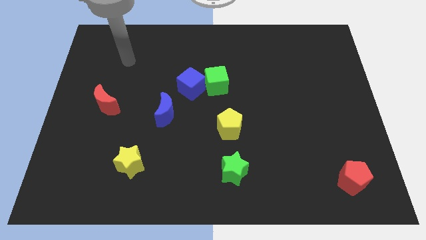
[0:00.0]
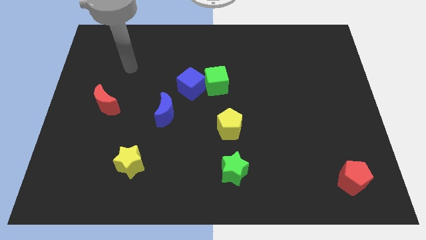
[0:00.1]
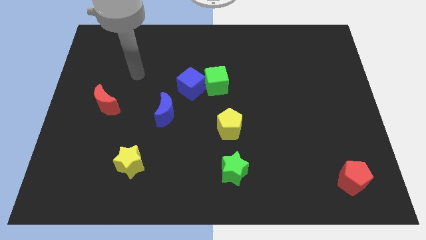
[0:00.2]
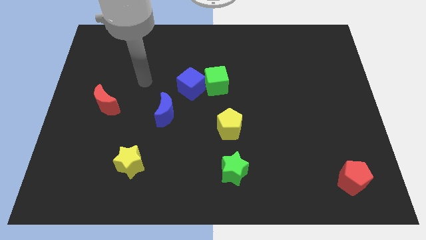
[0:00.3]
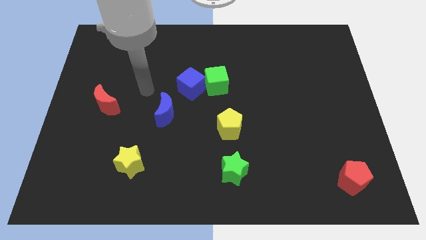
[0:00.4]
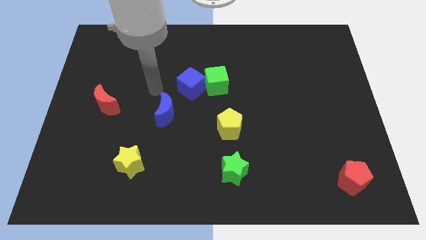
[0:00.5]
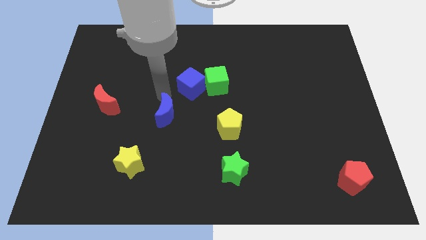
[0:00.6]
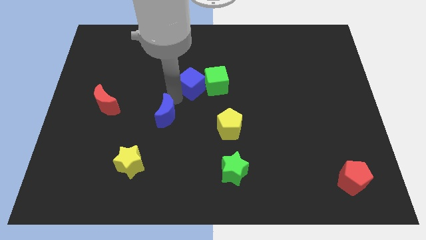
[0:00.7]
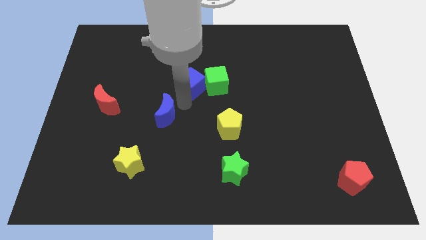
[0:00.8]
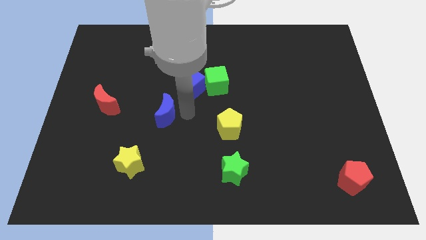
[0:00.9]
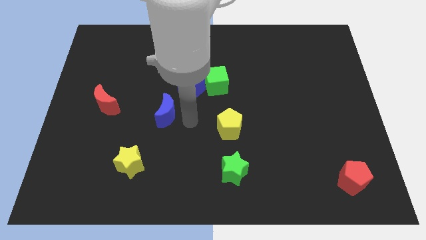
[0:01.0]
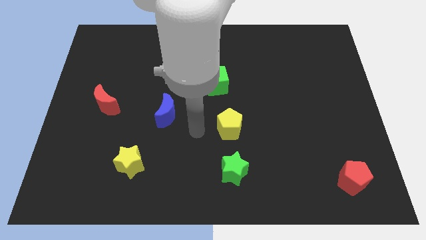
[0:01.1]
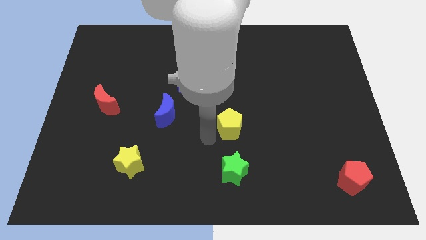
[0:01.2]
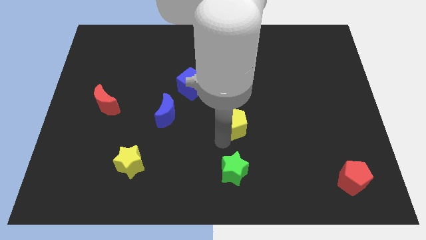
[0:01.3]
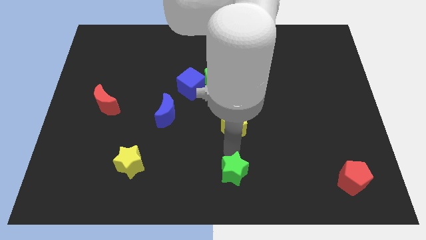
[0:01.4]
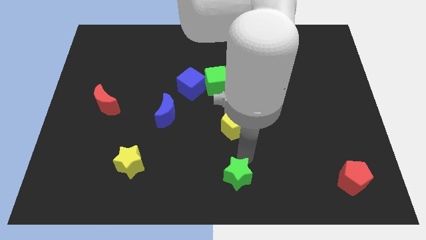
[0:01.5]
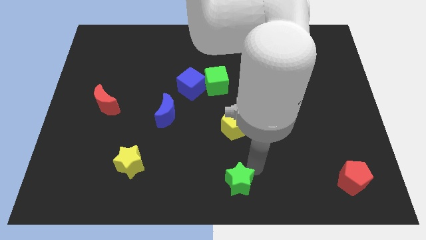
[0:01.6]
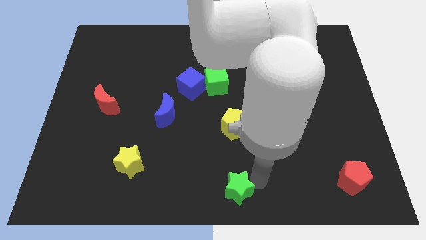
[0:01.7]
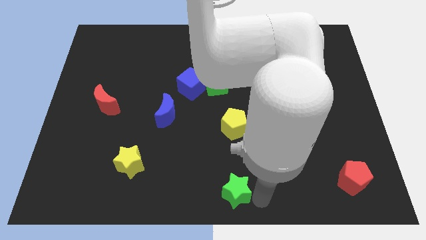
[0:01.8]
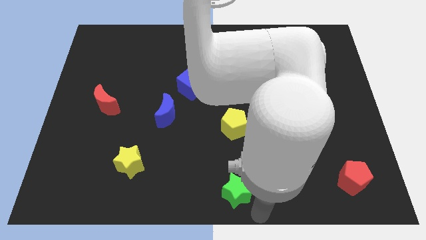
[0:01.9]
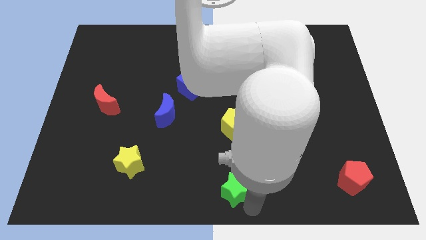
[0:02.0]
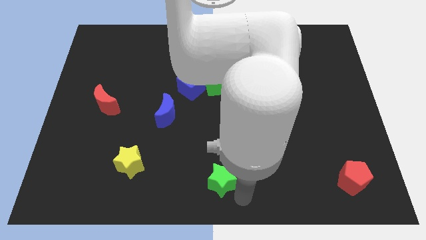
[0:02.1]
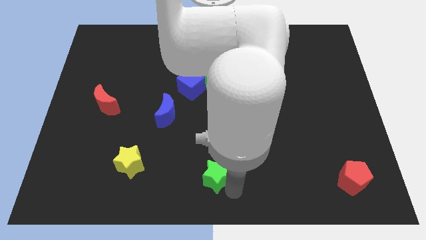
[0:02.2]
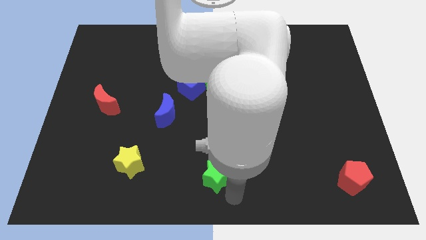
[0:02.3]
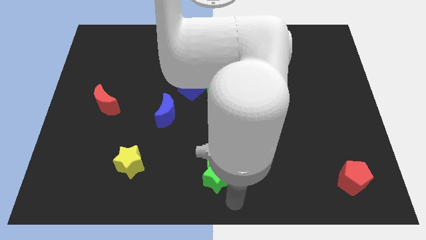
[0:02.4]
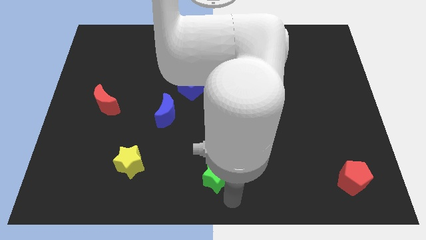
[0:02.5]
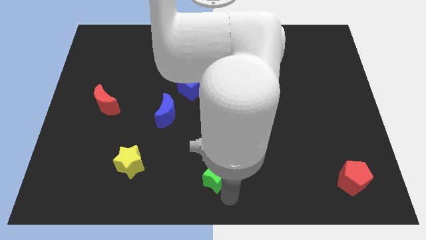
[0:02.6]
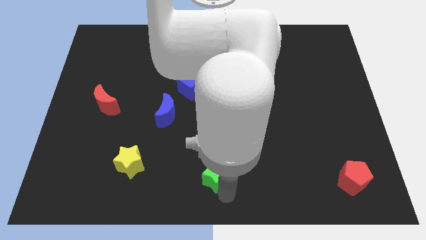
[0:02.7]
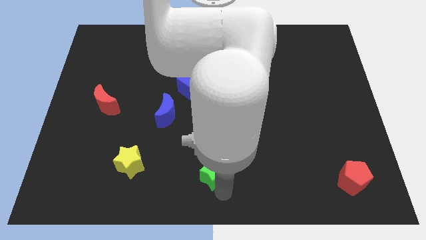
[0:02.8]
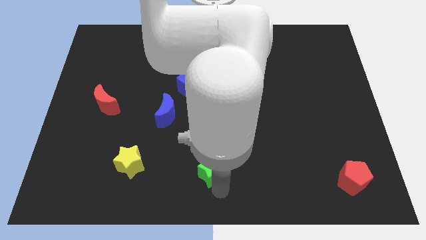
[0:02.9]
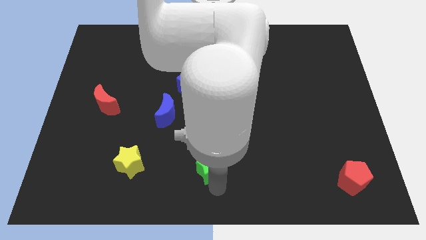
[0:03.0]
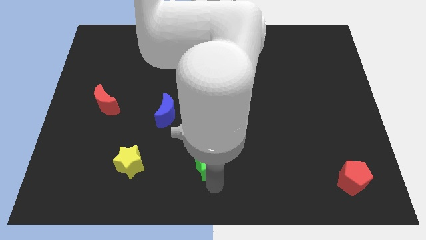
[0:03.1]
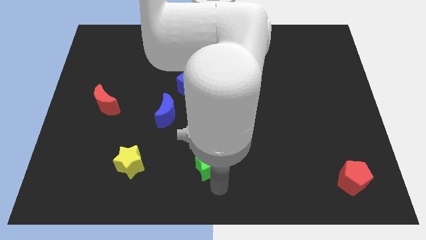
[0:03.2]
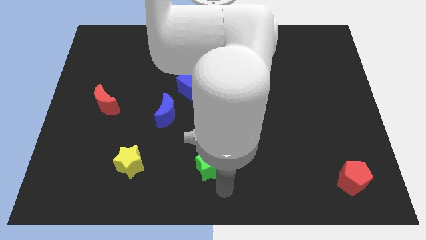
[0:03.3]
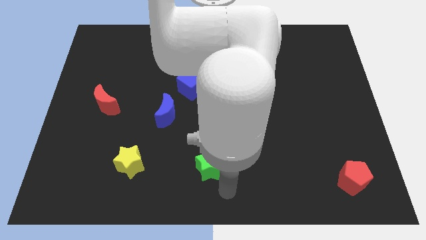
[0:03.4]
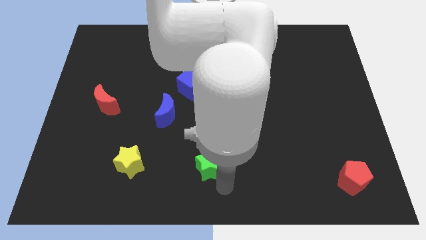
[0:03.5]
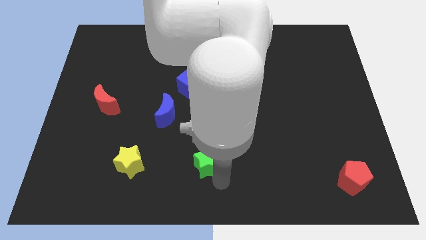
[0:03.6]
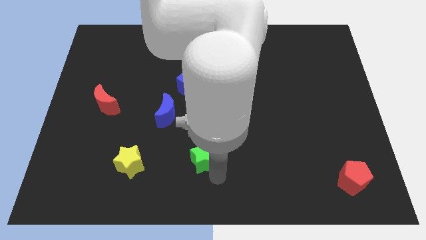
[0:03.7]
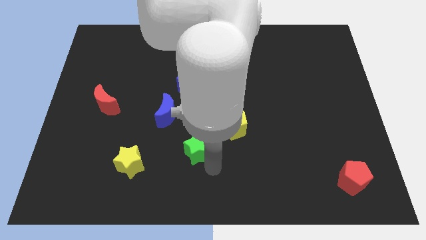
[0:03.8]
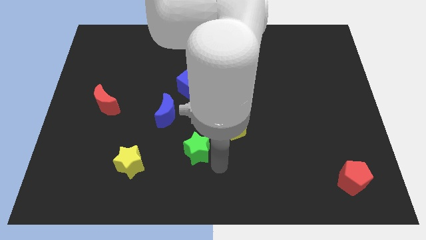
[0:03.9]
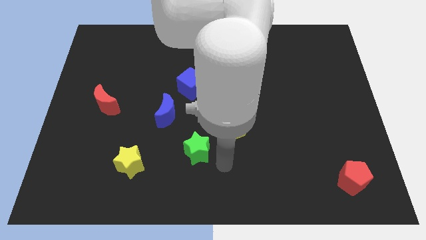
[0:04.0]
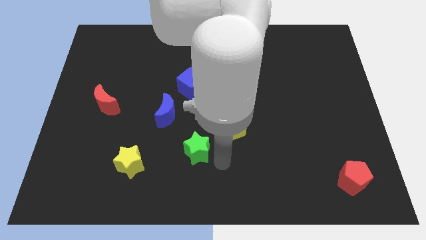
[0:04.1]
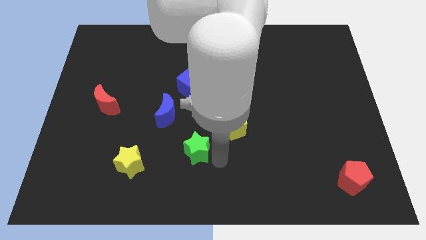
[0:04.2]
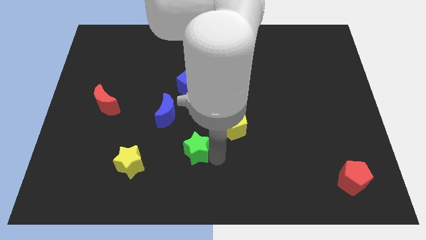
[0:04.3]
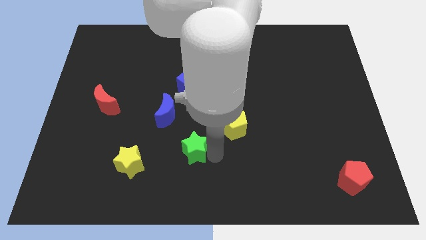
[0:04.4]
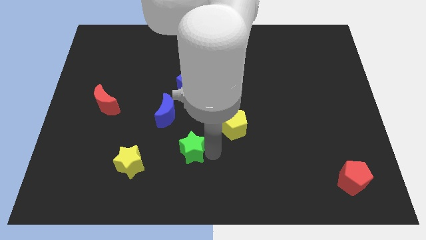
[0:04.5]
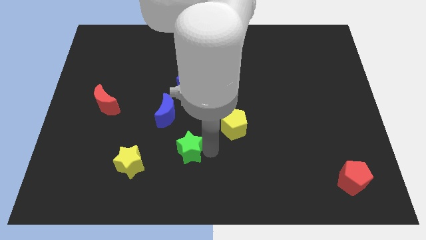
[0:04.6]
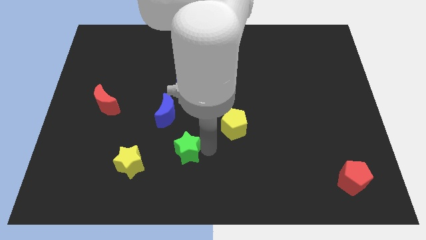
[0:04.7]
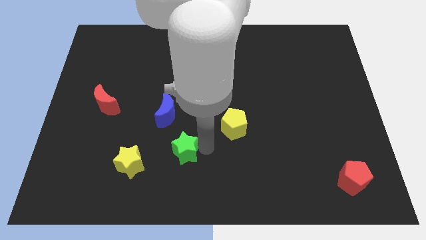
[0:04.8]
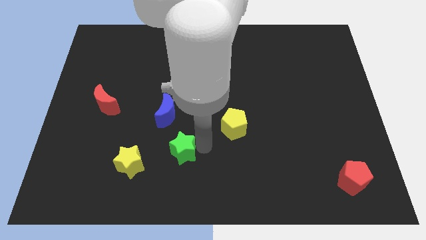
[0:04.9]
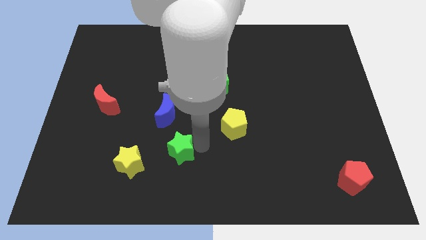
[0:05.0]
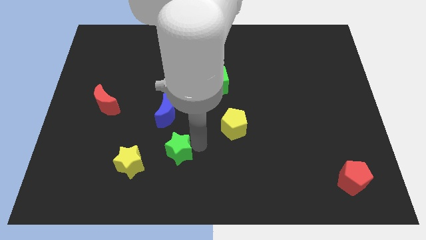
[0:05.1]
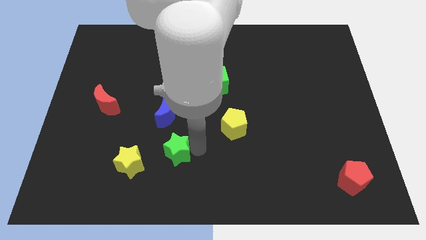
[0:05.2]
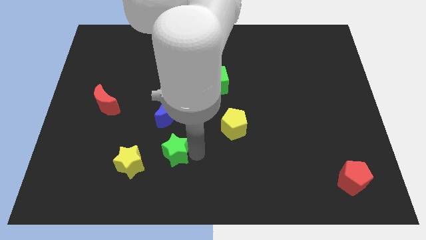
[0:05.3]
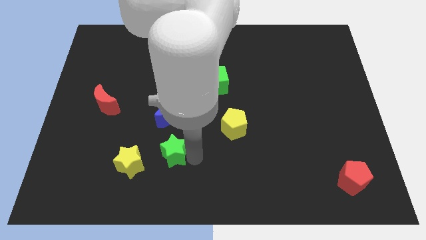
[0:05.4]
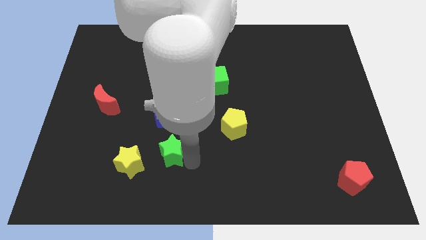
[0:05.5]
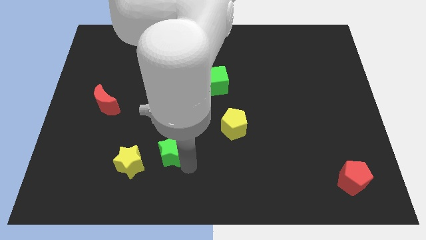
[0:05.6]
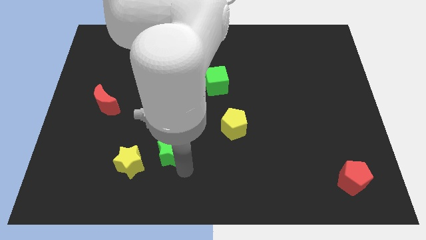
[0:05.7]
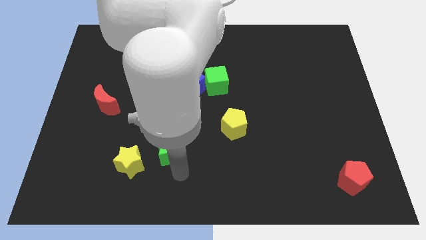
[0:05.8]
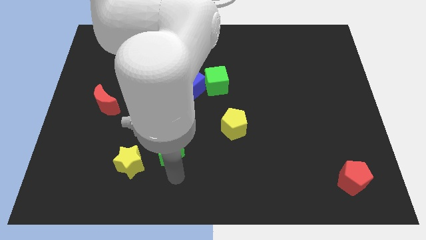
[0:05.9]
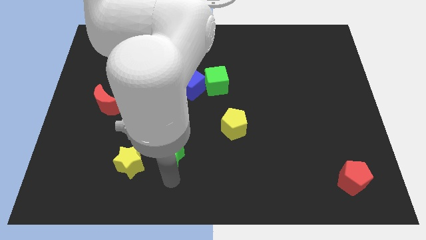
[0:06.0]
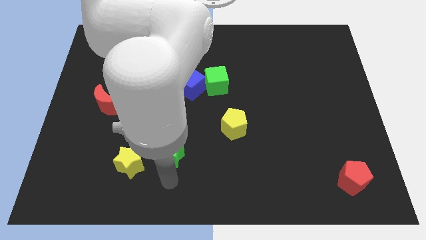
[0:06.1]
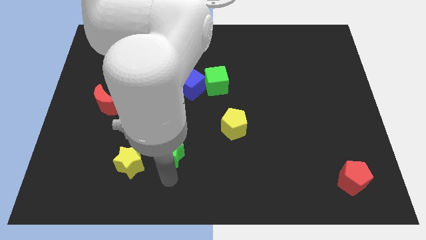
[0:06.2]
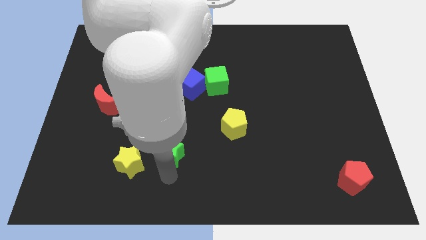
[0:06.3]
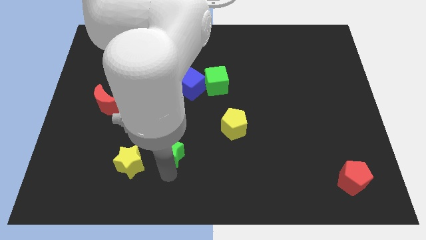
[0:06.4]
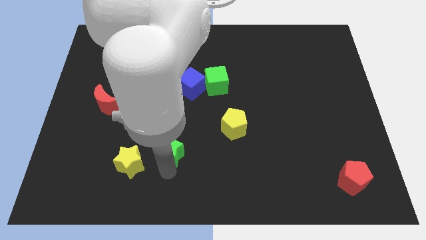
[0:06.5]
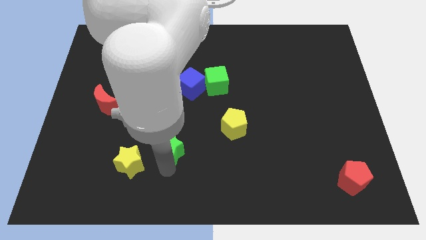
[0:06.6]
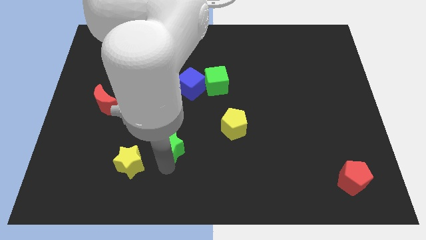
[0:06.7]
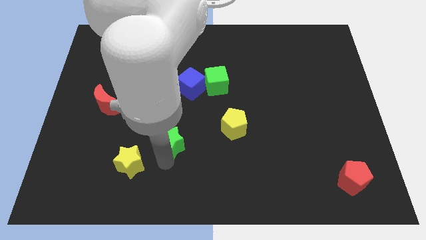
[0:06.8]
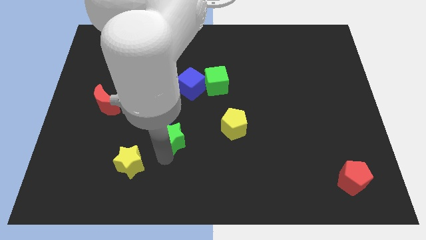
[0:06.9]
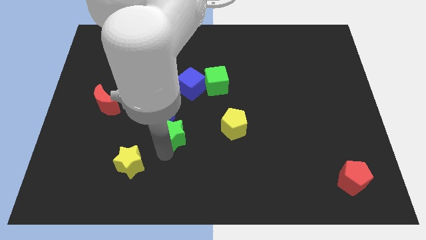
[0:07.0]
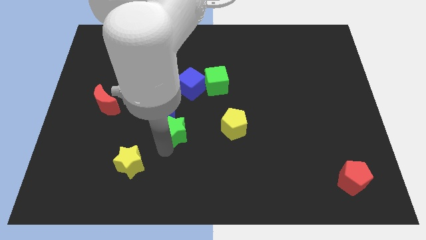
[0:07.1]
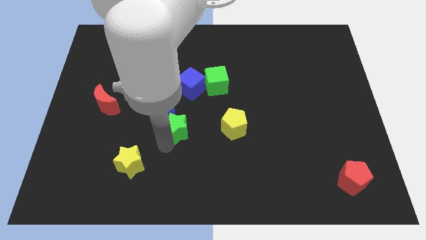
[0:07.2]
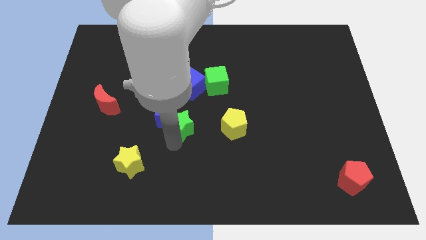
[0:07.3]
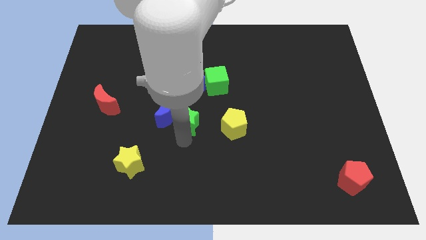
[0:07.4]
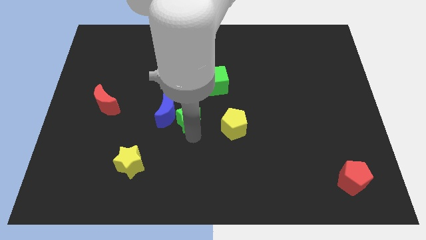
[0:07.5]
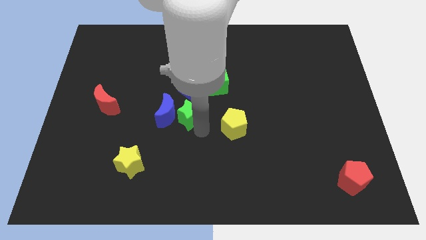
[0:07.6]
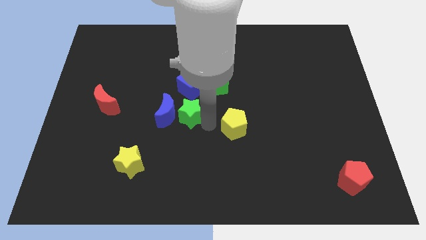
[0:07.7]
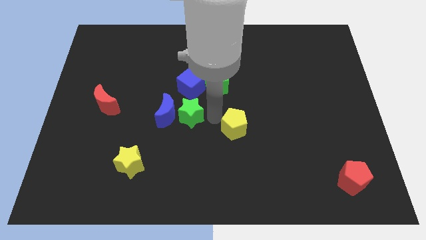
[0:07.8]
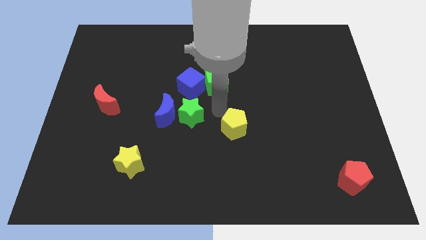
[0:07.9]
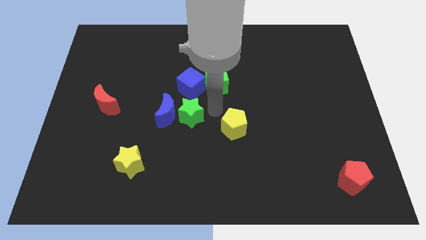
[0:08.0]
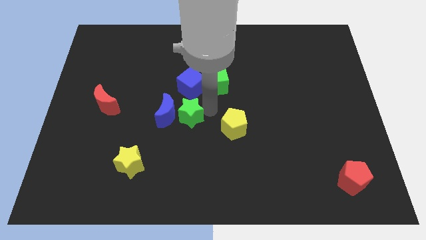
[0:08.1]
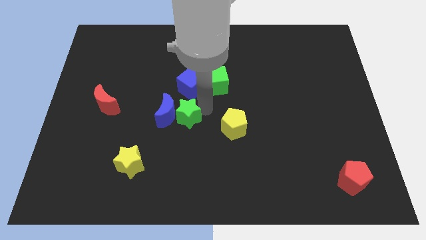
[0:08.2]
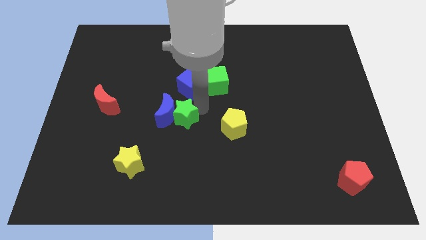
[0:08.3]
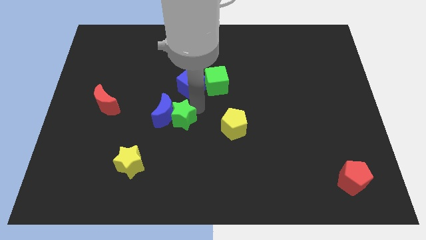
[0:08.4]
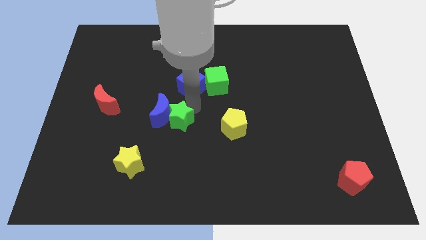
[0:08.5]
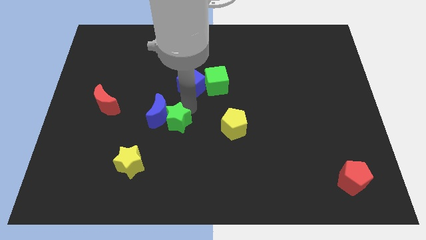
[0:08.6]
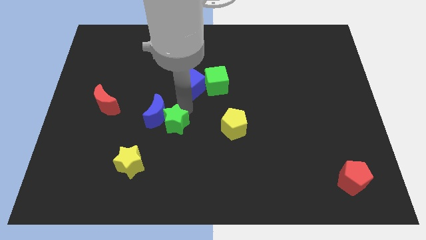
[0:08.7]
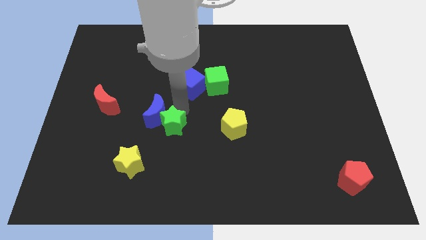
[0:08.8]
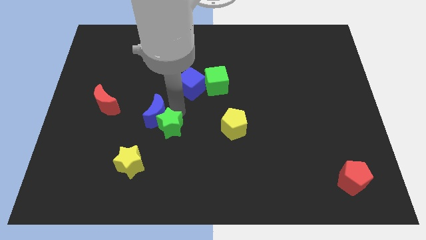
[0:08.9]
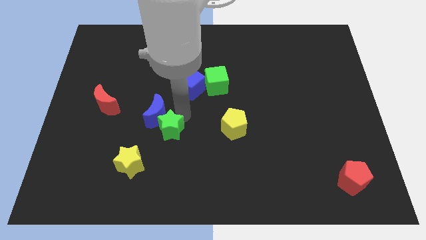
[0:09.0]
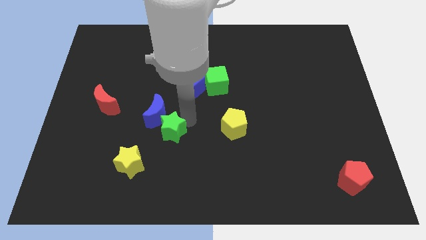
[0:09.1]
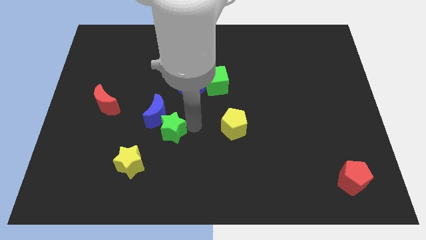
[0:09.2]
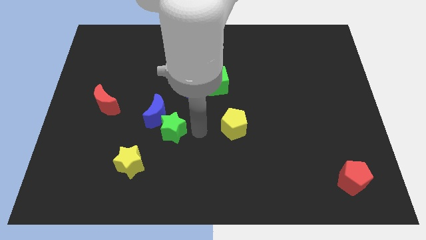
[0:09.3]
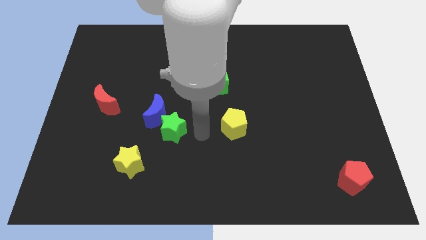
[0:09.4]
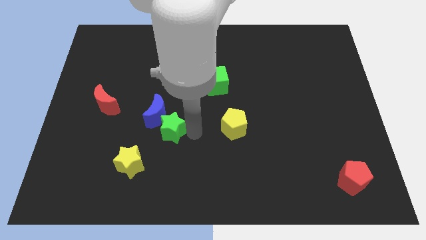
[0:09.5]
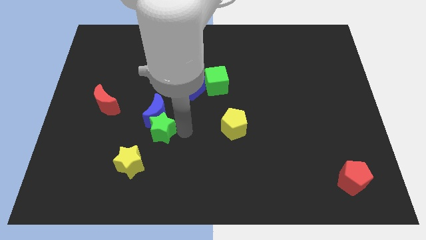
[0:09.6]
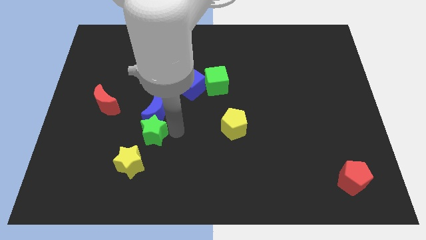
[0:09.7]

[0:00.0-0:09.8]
slide the green star to the top side of the yellow star
